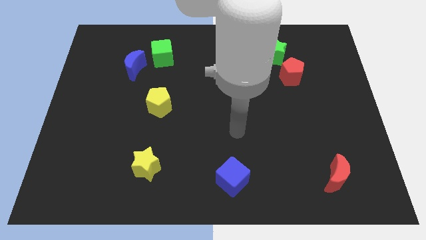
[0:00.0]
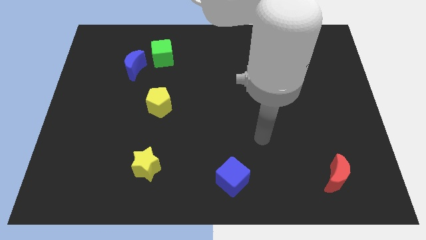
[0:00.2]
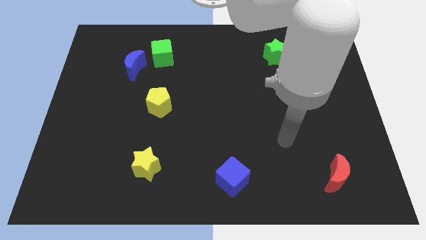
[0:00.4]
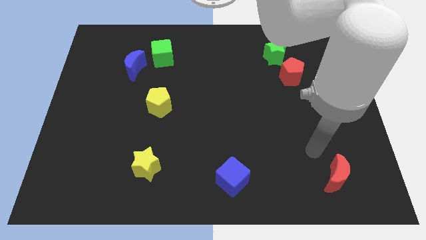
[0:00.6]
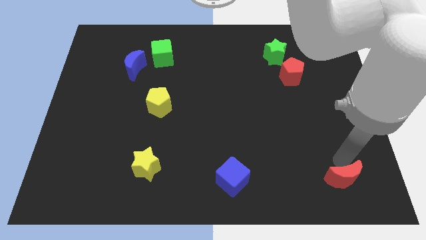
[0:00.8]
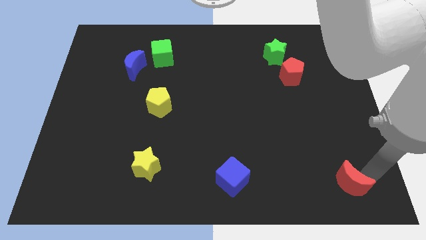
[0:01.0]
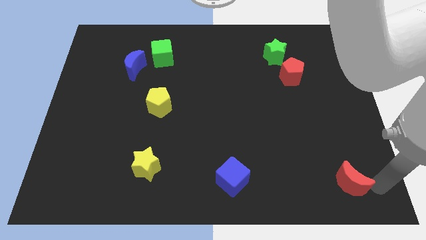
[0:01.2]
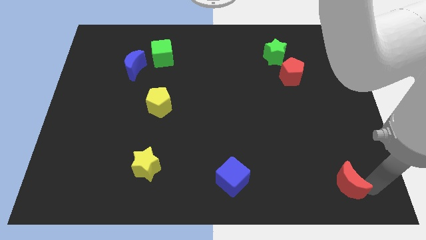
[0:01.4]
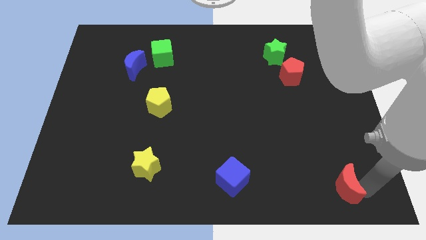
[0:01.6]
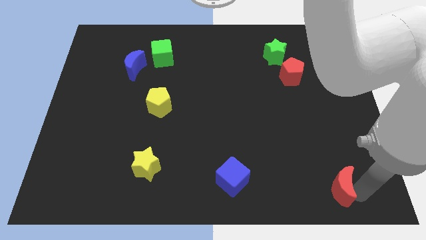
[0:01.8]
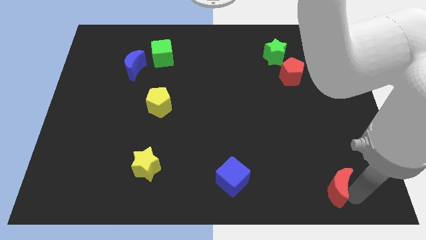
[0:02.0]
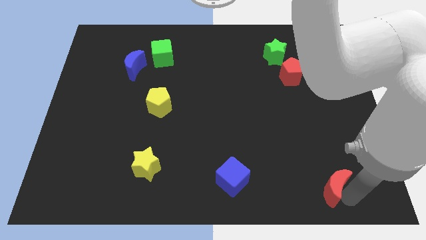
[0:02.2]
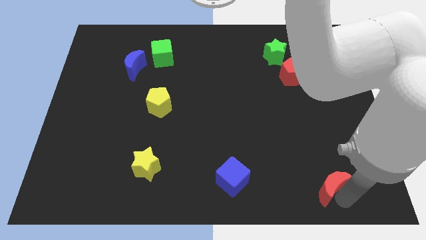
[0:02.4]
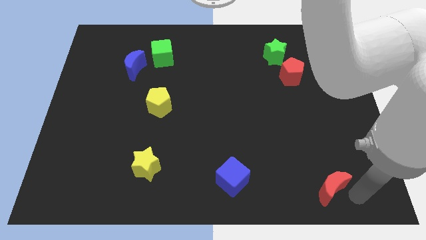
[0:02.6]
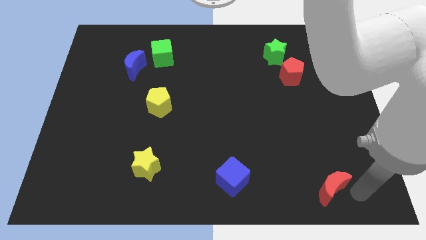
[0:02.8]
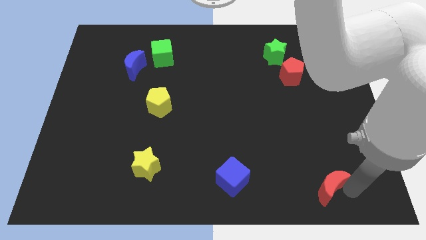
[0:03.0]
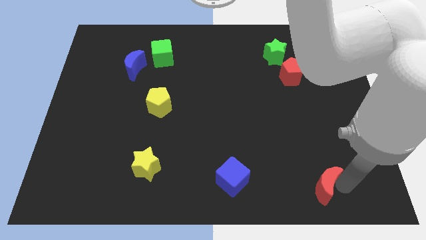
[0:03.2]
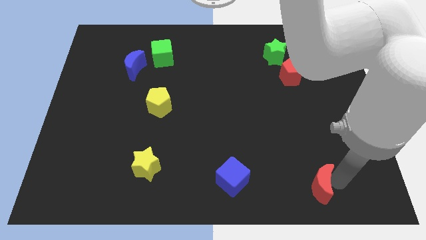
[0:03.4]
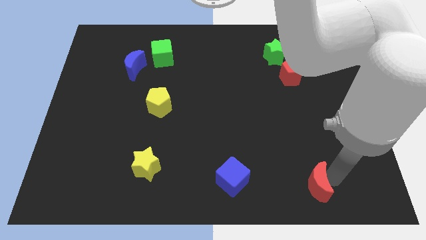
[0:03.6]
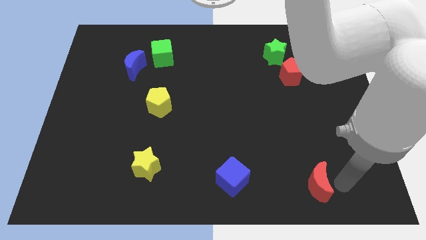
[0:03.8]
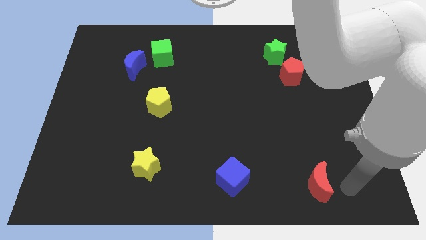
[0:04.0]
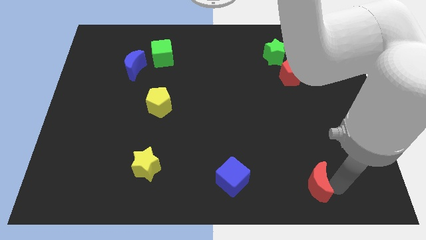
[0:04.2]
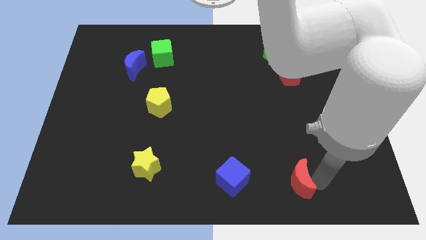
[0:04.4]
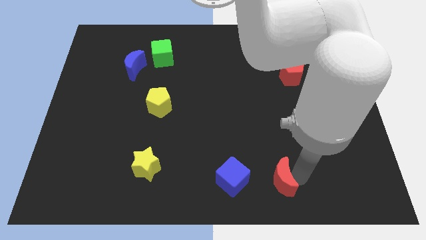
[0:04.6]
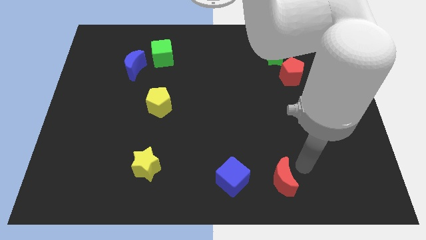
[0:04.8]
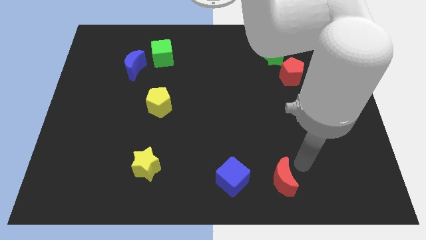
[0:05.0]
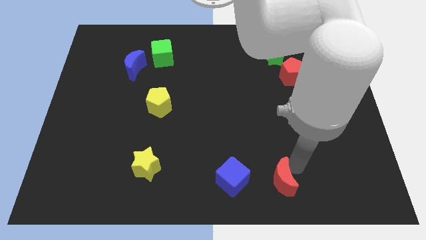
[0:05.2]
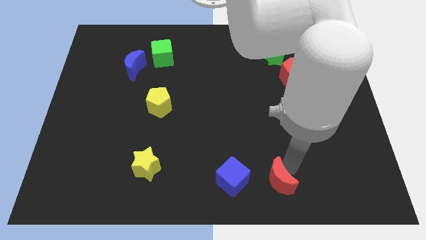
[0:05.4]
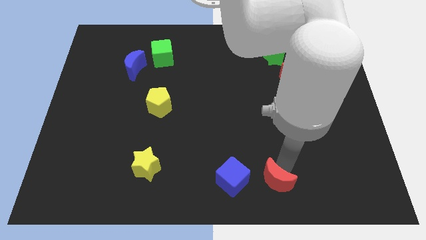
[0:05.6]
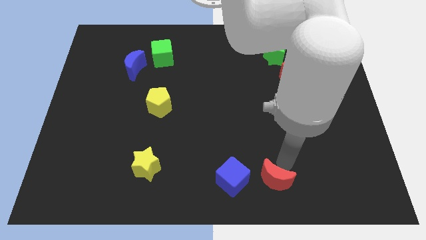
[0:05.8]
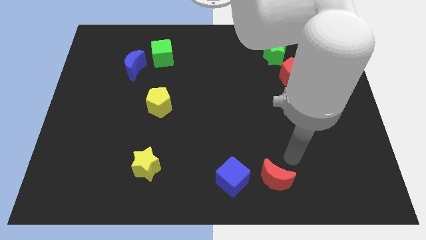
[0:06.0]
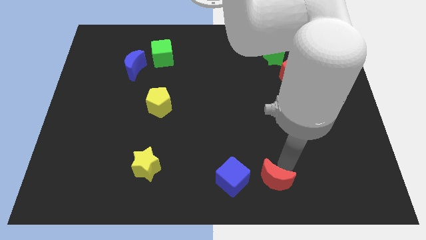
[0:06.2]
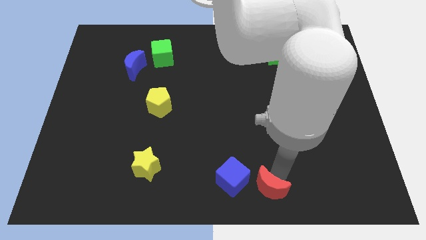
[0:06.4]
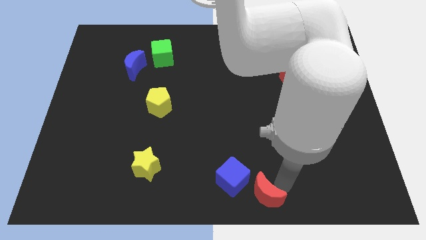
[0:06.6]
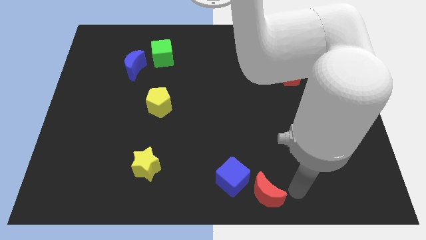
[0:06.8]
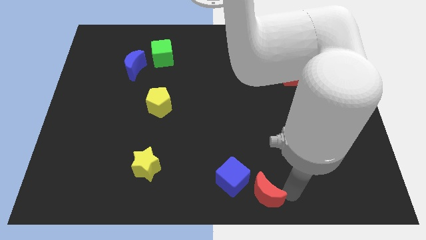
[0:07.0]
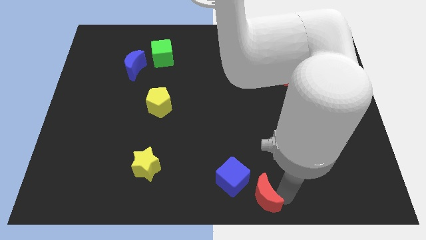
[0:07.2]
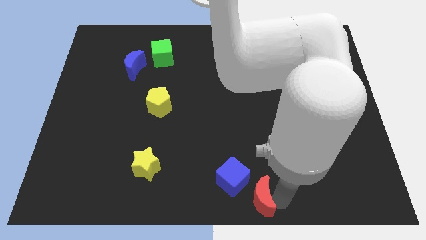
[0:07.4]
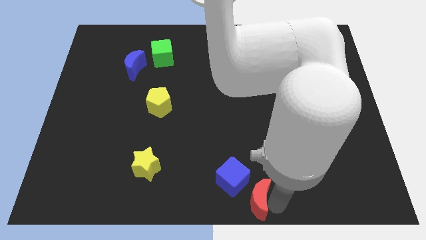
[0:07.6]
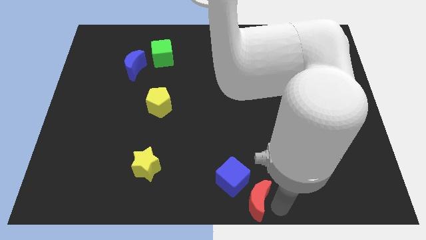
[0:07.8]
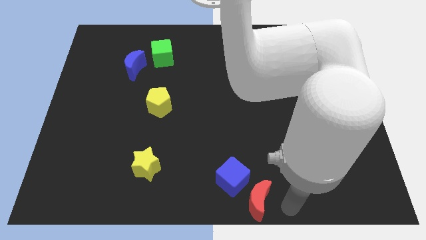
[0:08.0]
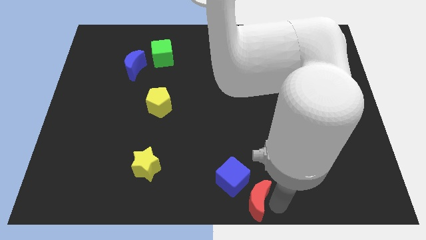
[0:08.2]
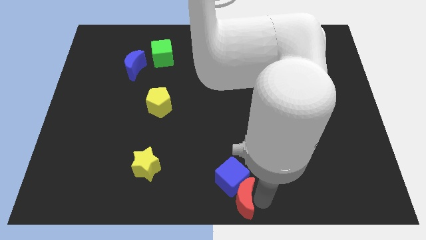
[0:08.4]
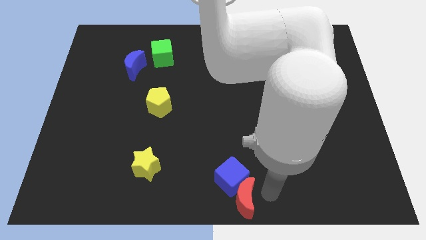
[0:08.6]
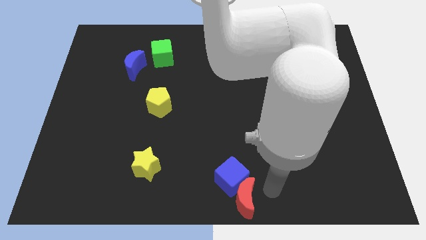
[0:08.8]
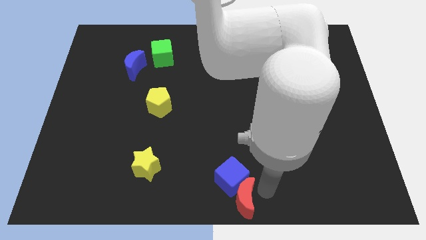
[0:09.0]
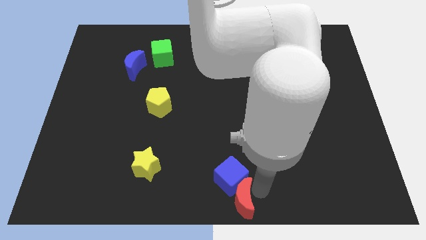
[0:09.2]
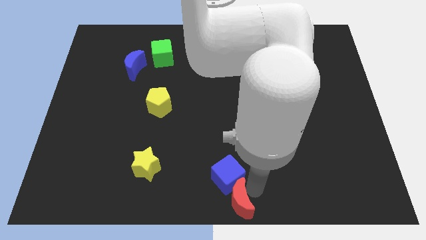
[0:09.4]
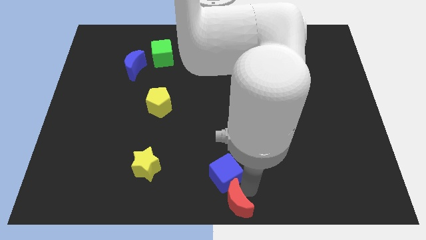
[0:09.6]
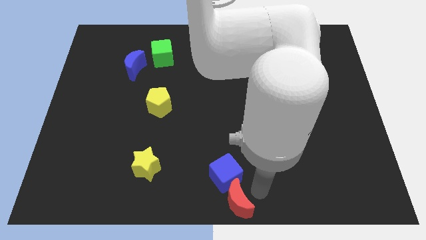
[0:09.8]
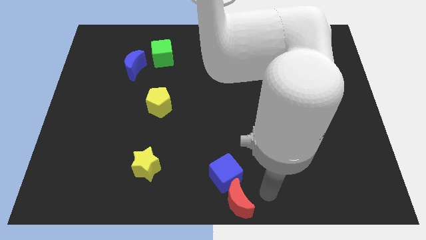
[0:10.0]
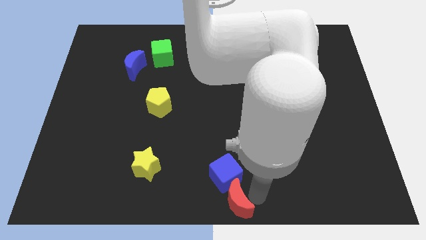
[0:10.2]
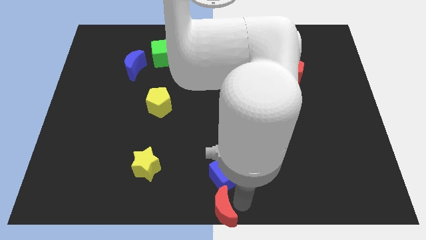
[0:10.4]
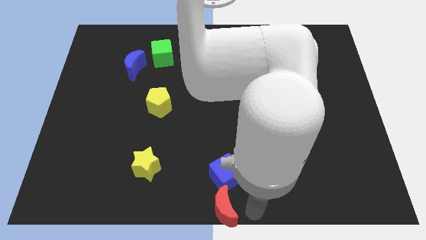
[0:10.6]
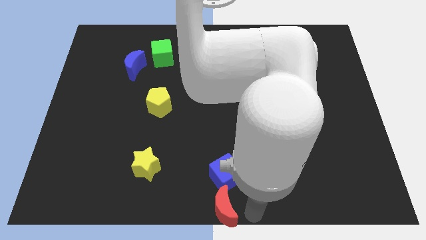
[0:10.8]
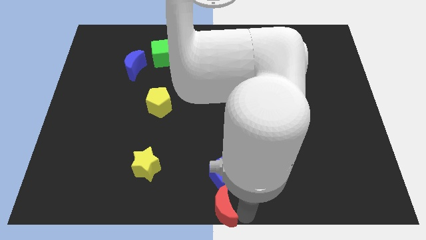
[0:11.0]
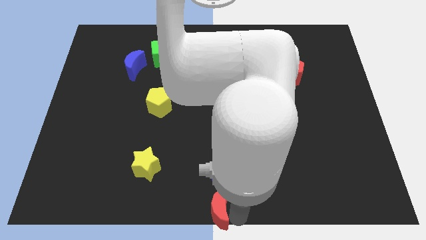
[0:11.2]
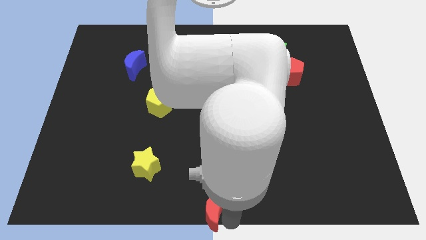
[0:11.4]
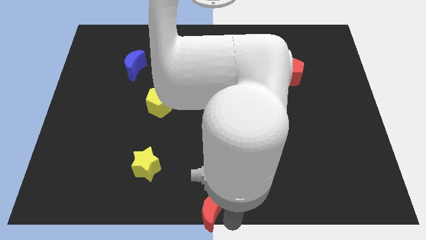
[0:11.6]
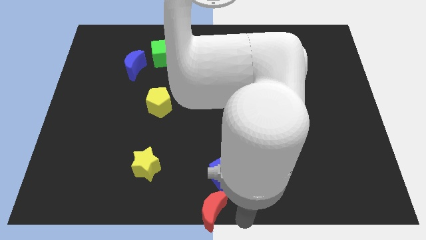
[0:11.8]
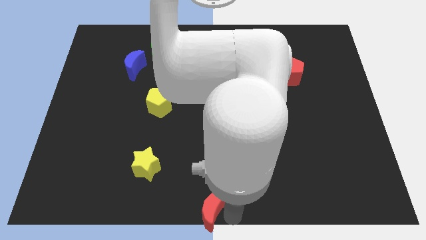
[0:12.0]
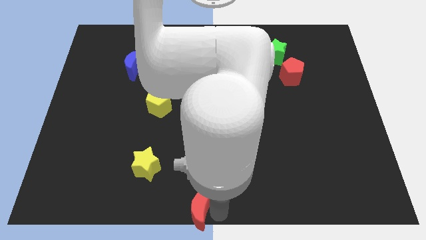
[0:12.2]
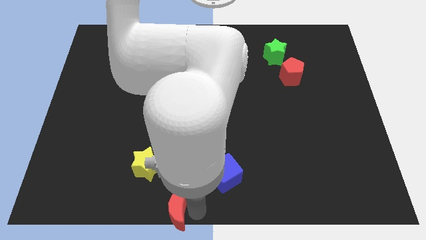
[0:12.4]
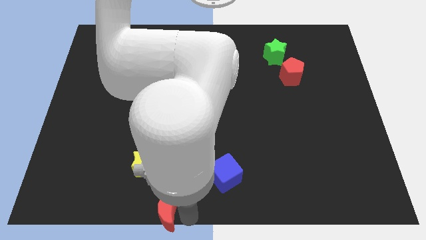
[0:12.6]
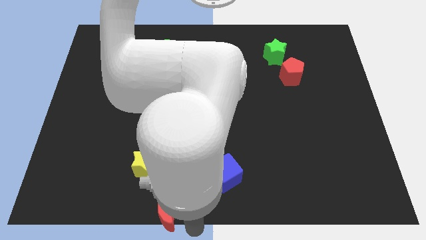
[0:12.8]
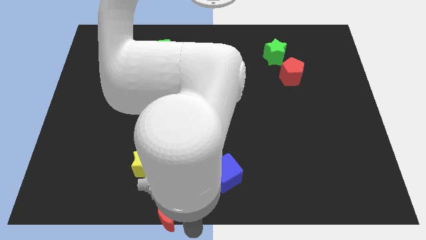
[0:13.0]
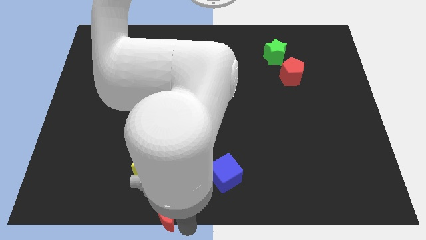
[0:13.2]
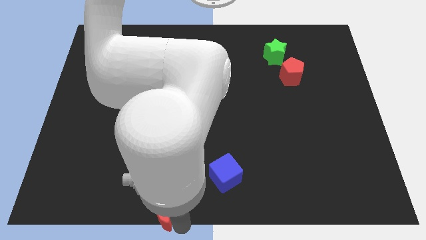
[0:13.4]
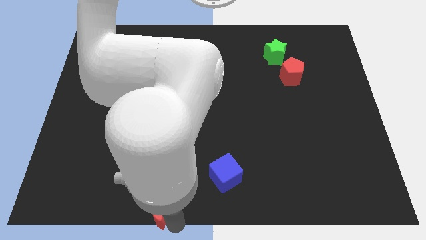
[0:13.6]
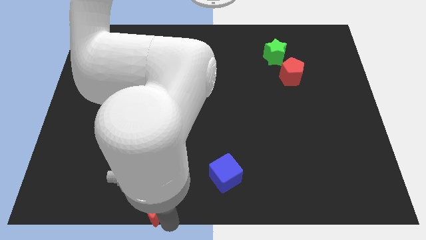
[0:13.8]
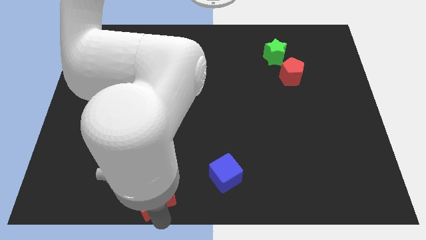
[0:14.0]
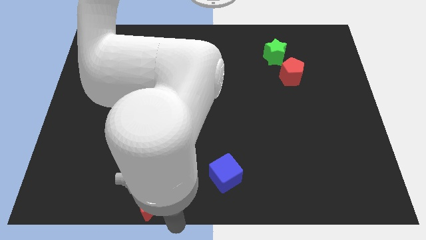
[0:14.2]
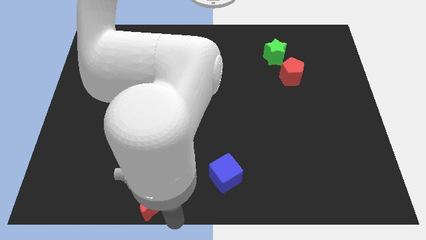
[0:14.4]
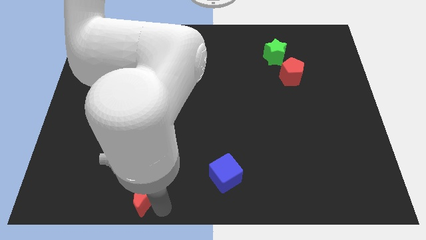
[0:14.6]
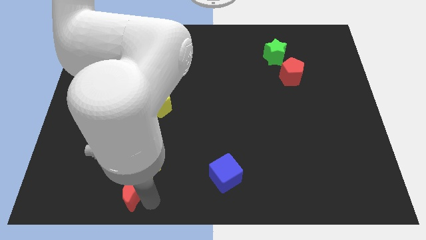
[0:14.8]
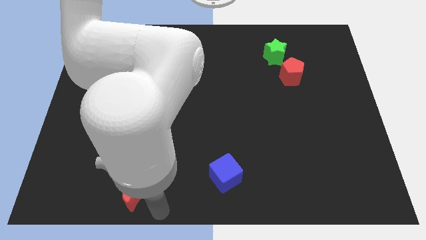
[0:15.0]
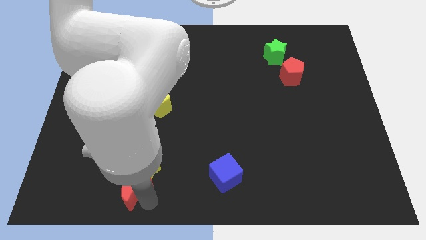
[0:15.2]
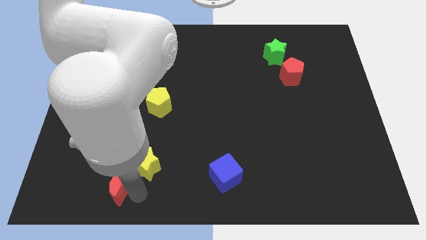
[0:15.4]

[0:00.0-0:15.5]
put the red moon left of the yellow star
